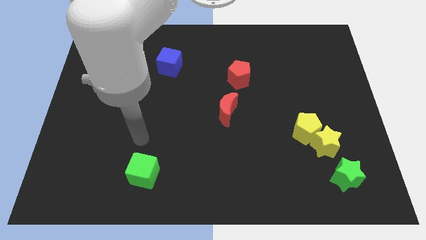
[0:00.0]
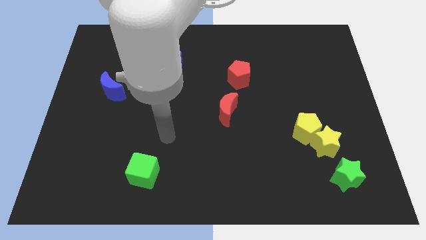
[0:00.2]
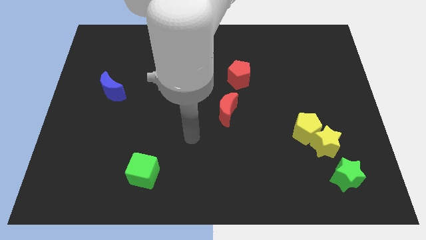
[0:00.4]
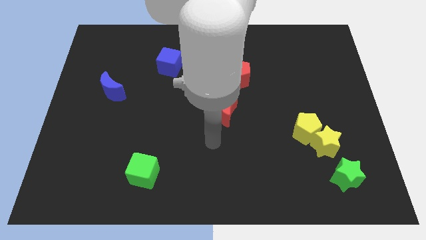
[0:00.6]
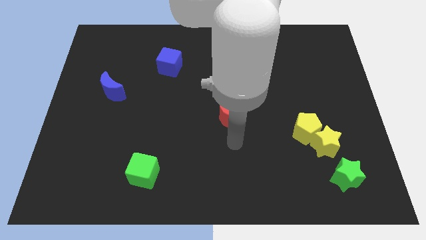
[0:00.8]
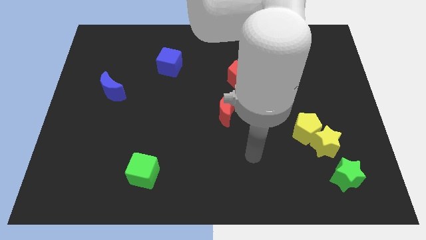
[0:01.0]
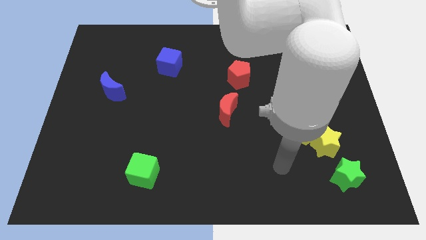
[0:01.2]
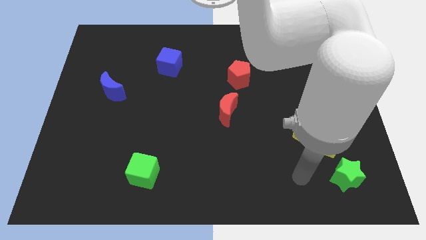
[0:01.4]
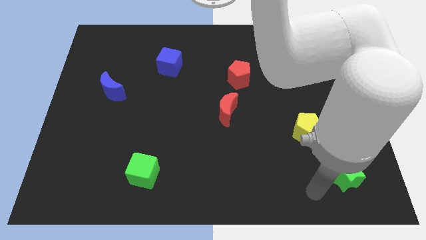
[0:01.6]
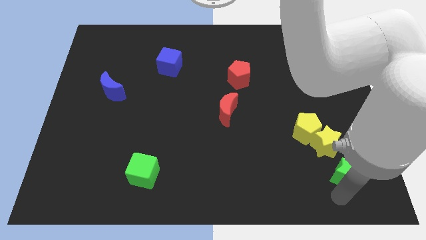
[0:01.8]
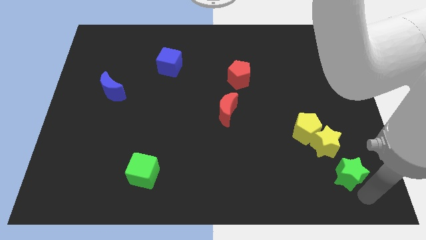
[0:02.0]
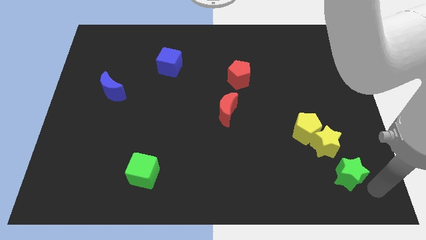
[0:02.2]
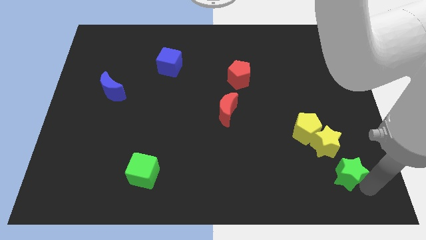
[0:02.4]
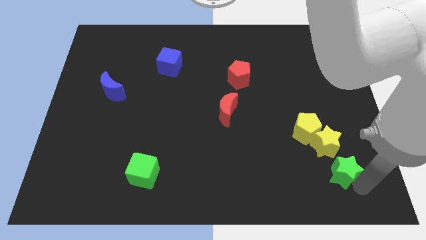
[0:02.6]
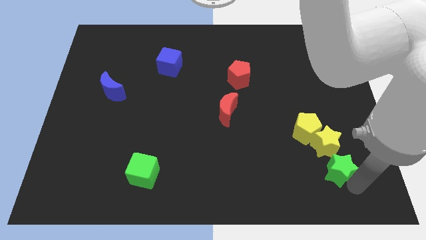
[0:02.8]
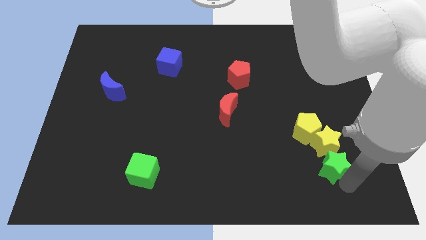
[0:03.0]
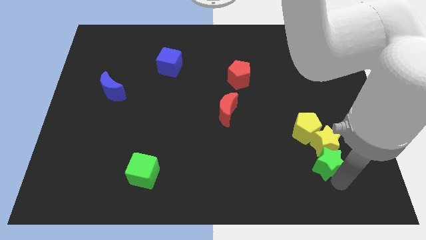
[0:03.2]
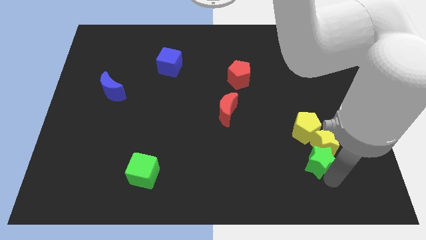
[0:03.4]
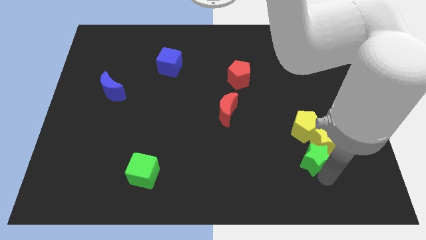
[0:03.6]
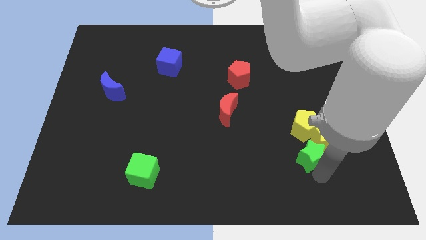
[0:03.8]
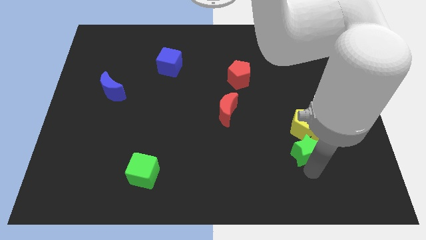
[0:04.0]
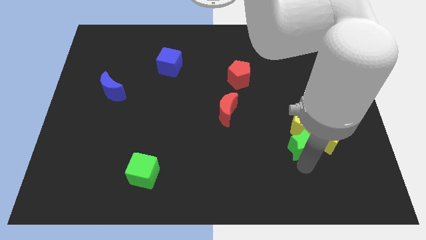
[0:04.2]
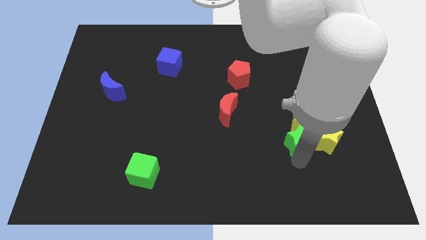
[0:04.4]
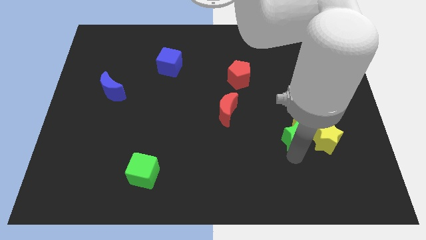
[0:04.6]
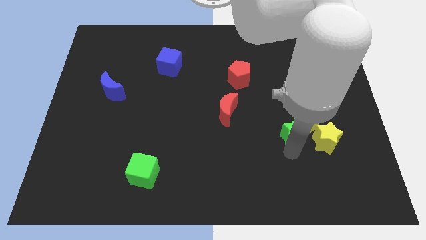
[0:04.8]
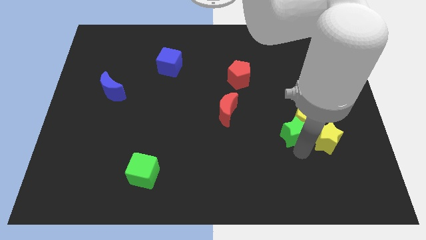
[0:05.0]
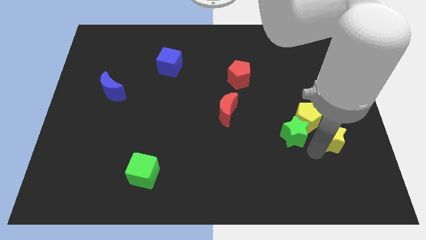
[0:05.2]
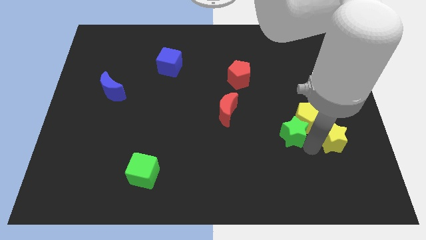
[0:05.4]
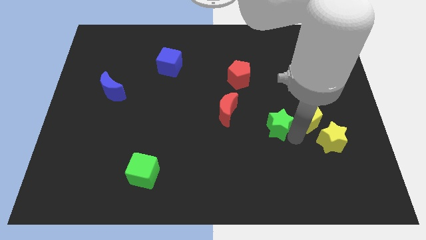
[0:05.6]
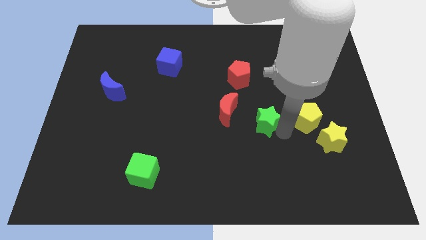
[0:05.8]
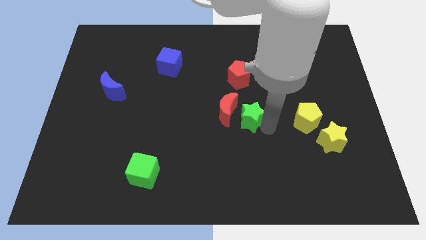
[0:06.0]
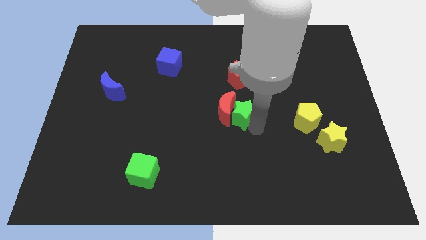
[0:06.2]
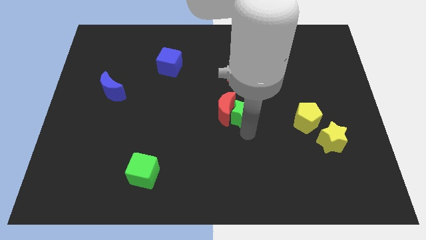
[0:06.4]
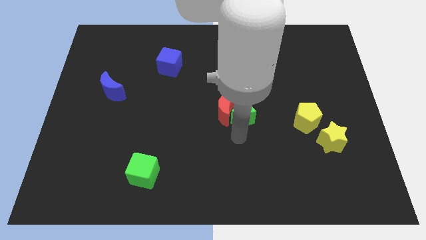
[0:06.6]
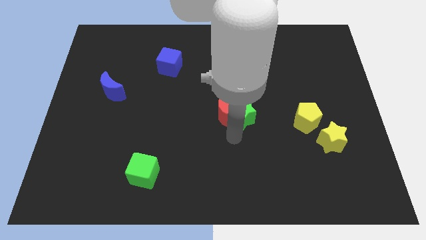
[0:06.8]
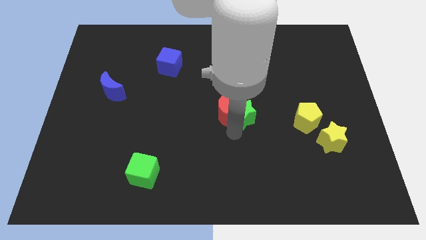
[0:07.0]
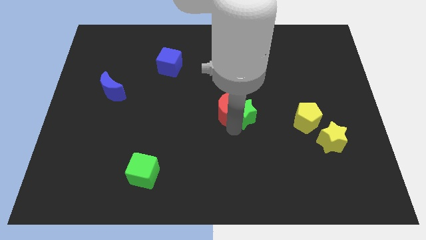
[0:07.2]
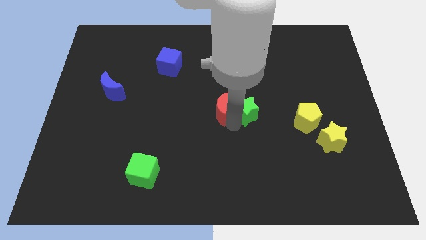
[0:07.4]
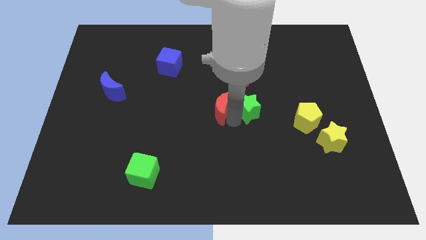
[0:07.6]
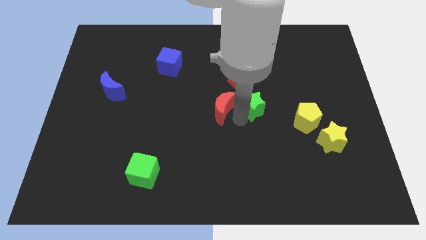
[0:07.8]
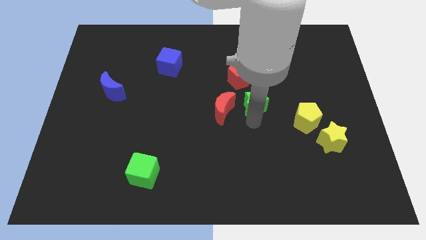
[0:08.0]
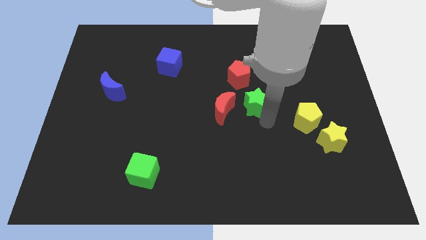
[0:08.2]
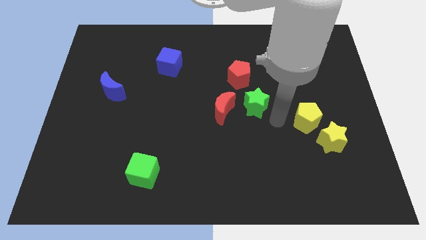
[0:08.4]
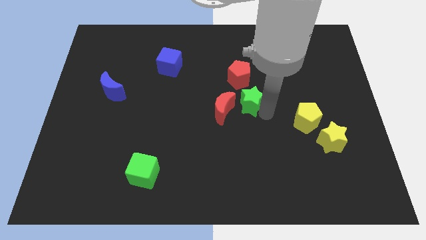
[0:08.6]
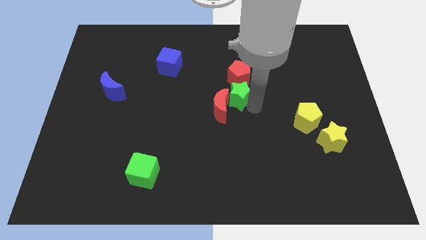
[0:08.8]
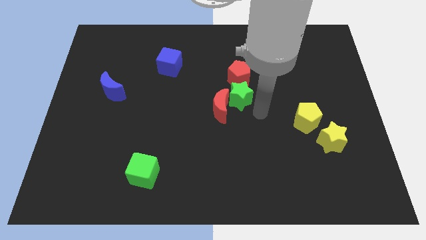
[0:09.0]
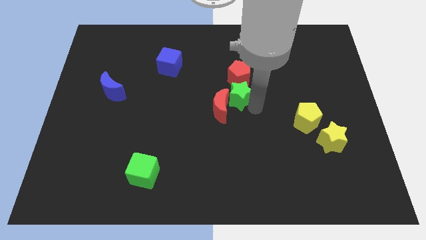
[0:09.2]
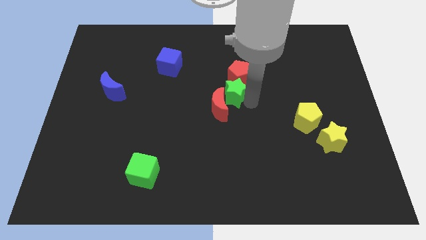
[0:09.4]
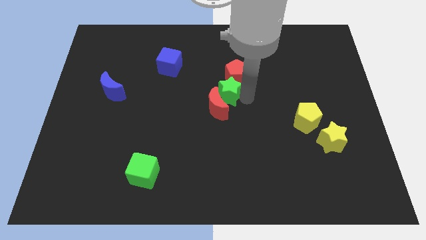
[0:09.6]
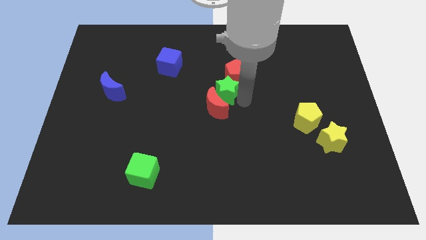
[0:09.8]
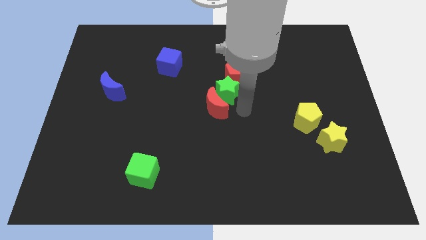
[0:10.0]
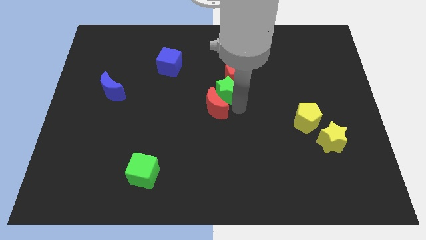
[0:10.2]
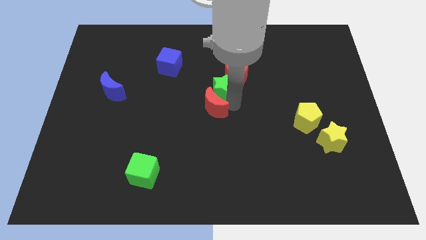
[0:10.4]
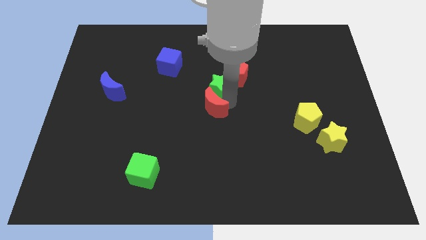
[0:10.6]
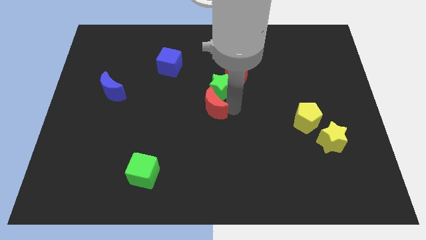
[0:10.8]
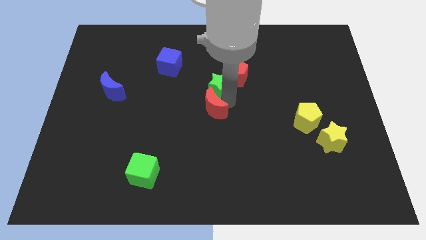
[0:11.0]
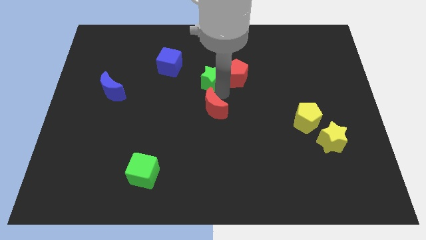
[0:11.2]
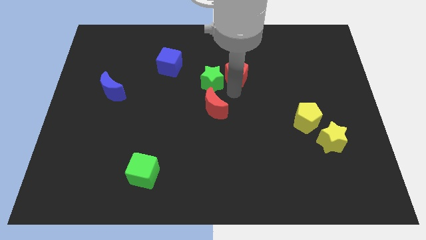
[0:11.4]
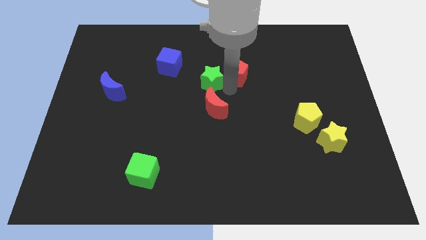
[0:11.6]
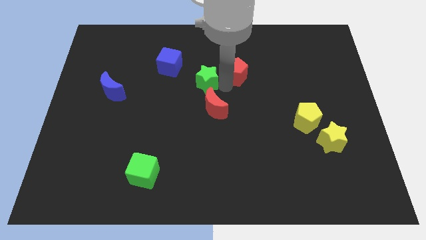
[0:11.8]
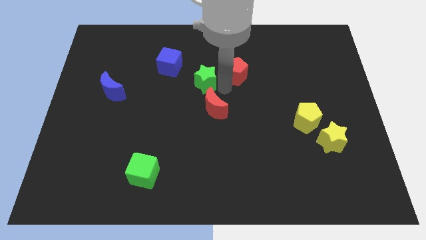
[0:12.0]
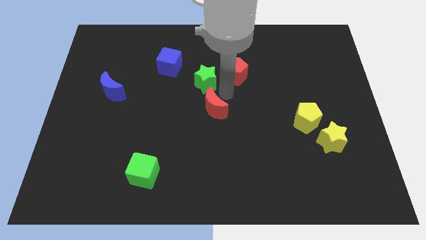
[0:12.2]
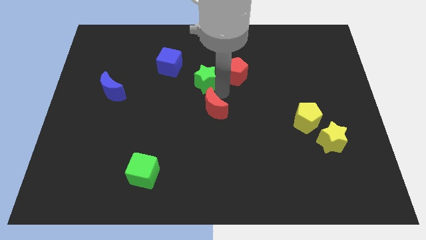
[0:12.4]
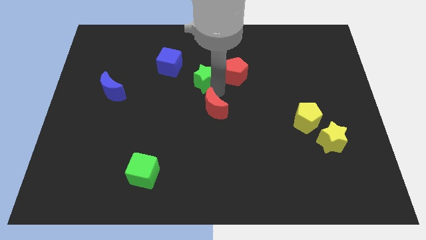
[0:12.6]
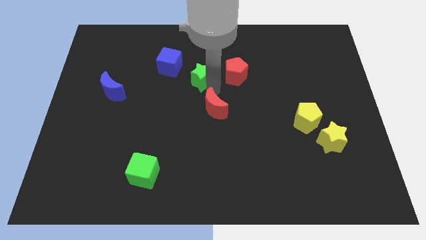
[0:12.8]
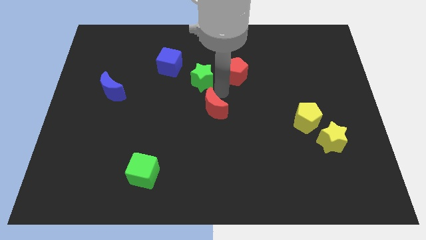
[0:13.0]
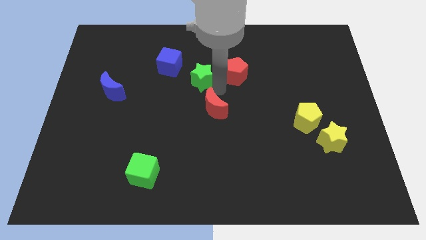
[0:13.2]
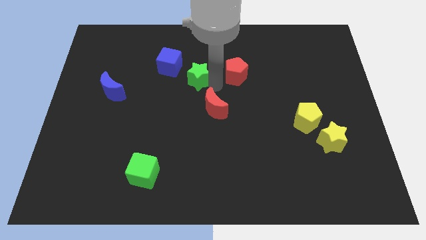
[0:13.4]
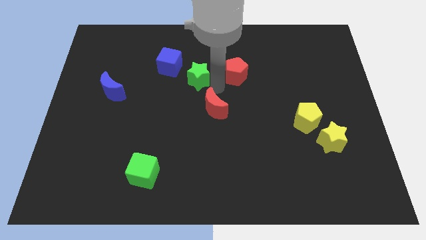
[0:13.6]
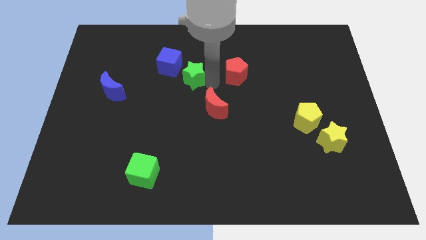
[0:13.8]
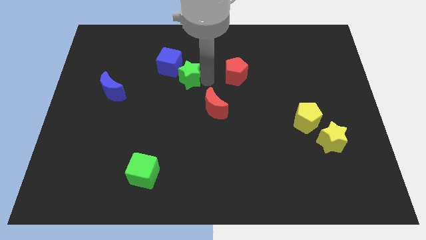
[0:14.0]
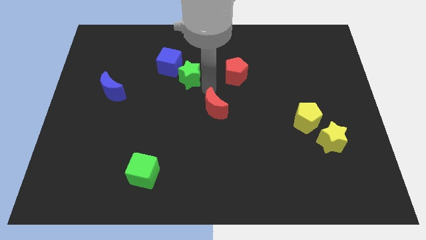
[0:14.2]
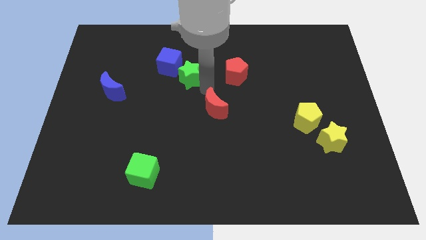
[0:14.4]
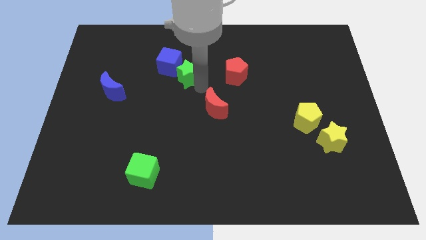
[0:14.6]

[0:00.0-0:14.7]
move the green star to the blue cube
